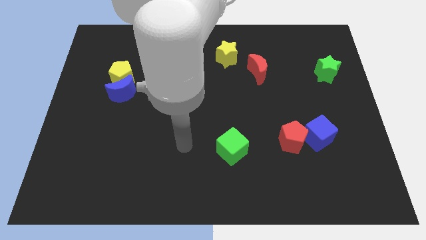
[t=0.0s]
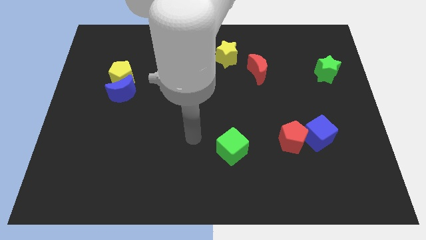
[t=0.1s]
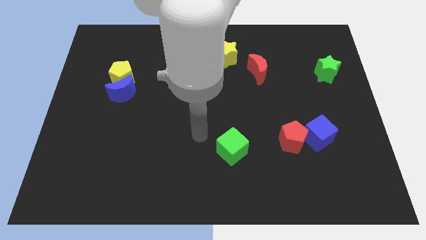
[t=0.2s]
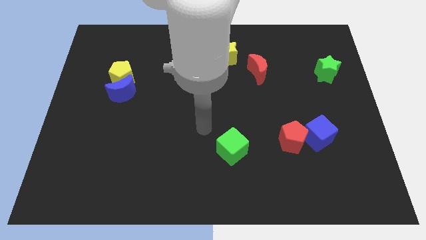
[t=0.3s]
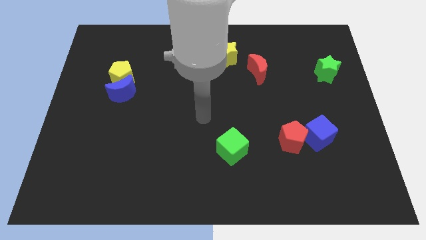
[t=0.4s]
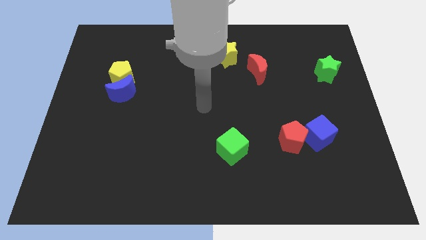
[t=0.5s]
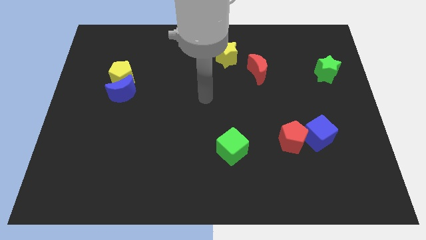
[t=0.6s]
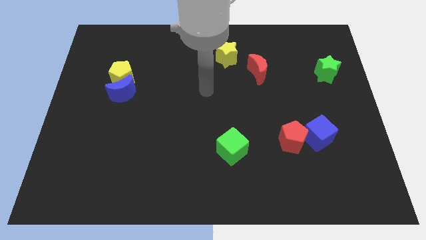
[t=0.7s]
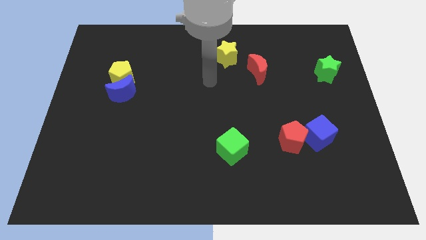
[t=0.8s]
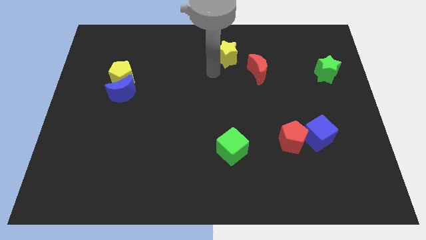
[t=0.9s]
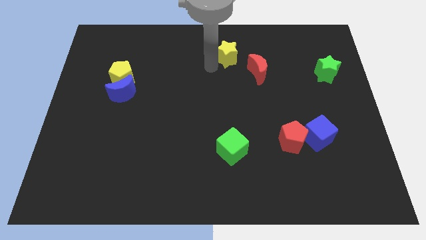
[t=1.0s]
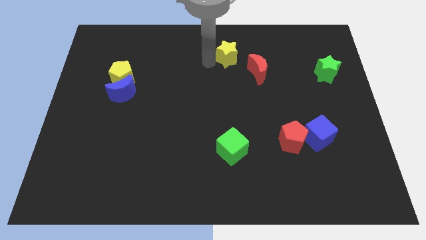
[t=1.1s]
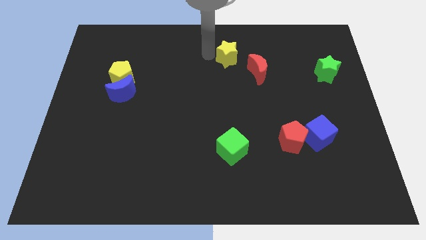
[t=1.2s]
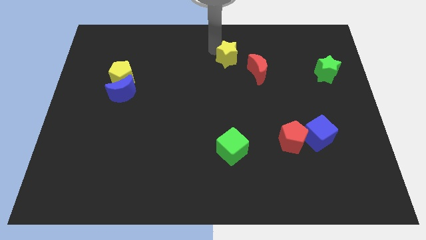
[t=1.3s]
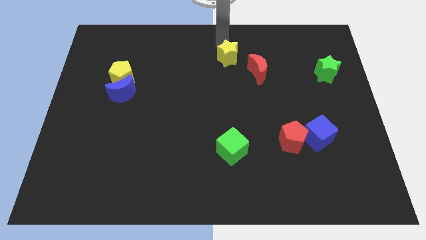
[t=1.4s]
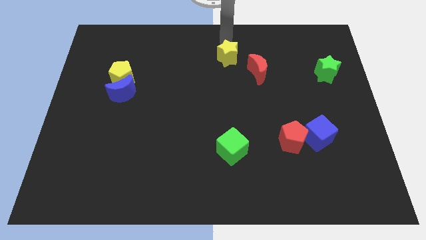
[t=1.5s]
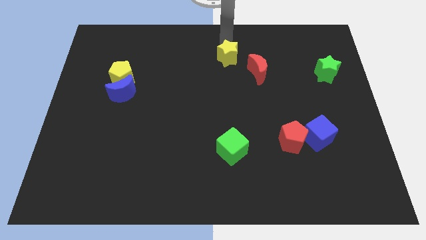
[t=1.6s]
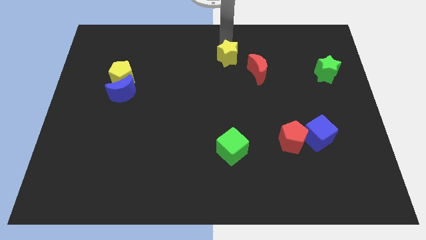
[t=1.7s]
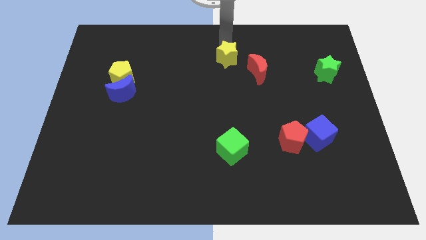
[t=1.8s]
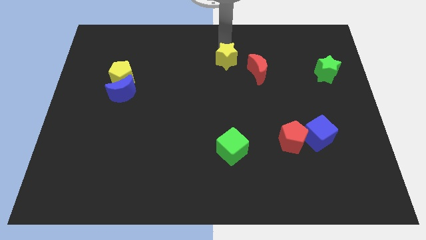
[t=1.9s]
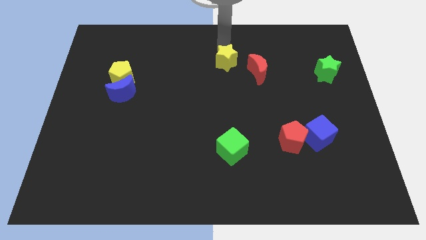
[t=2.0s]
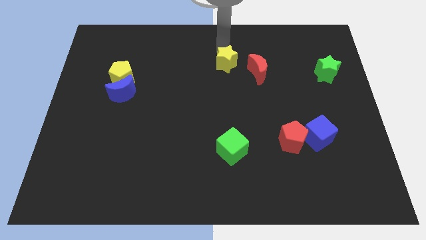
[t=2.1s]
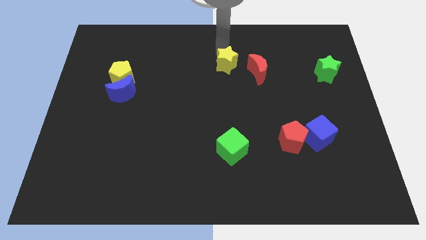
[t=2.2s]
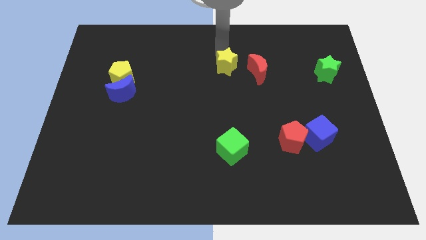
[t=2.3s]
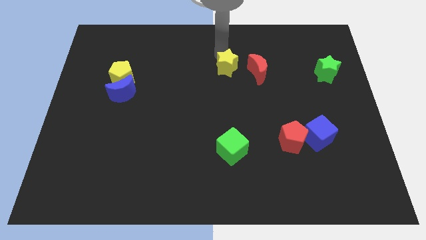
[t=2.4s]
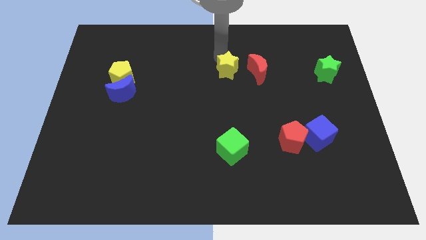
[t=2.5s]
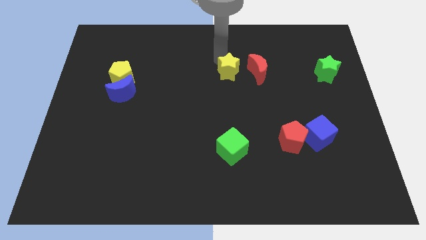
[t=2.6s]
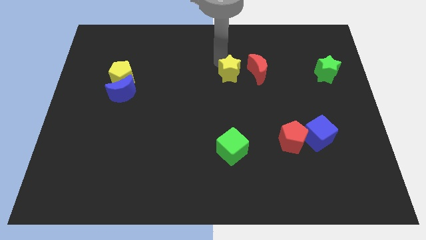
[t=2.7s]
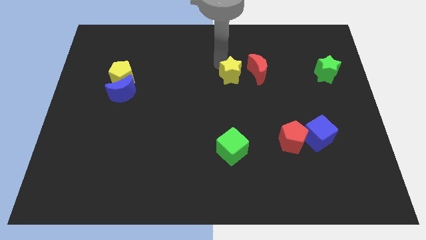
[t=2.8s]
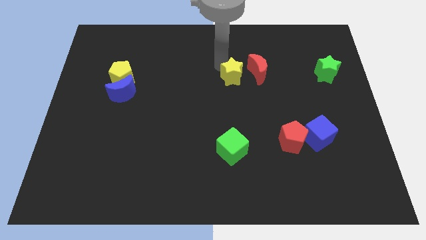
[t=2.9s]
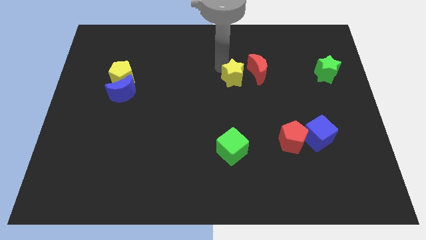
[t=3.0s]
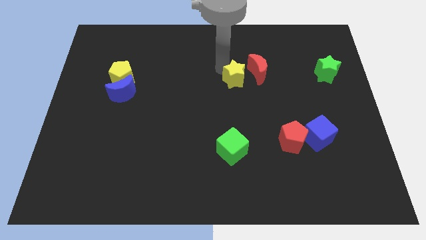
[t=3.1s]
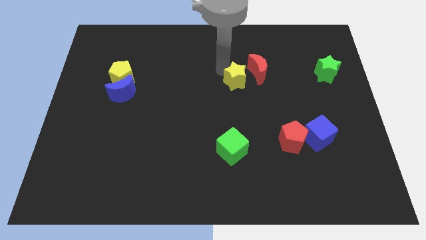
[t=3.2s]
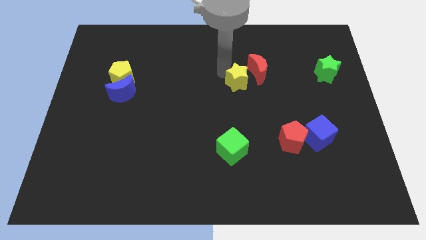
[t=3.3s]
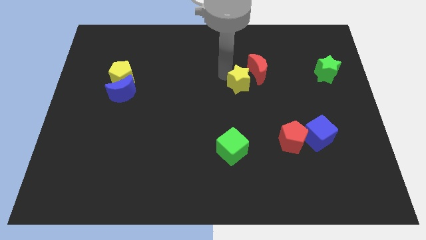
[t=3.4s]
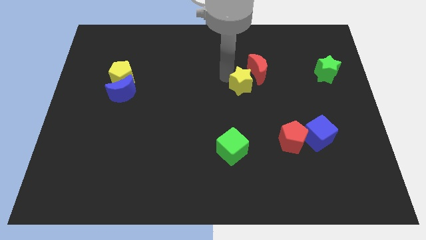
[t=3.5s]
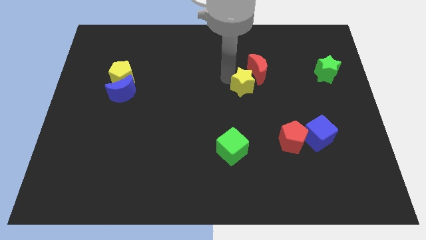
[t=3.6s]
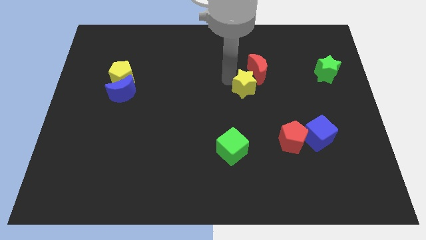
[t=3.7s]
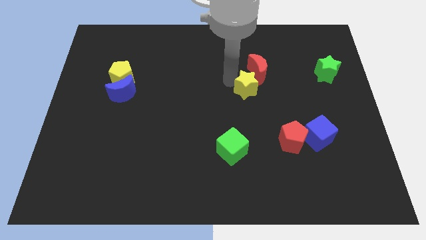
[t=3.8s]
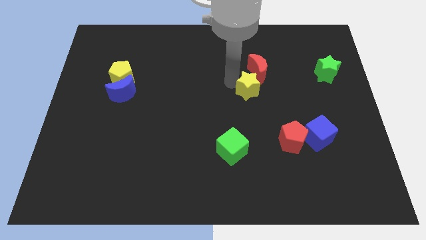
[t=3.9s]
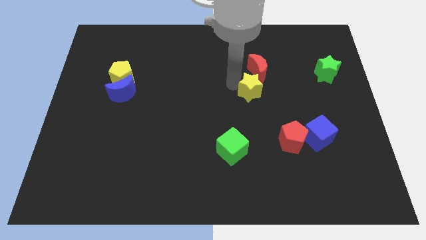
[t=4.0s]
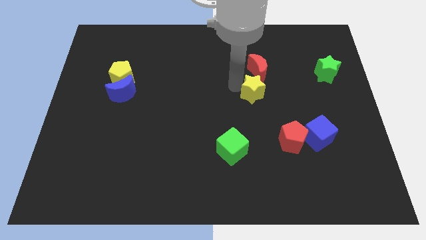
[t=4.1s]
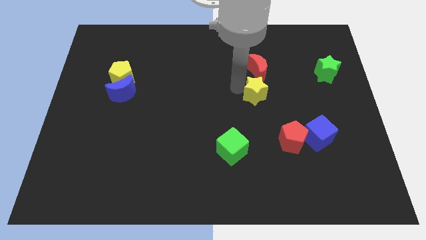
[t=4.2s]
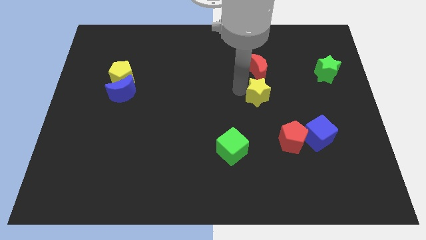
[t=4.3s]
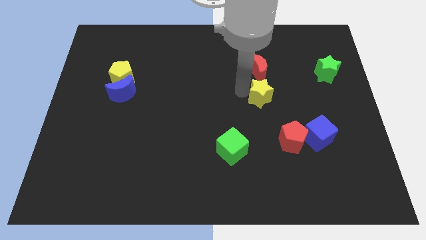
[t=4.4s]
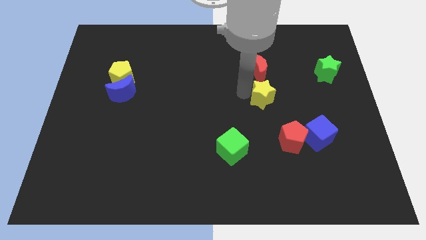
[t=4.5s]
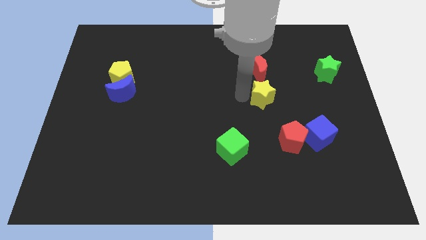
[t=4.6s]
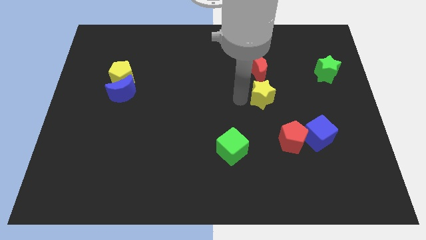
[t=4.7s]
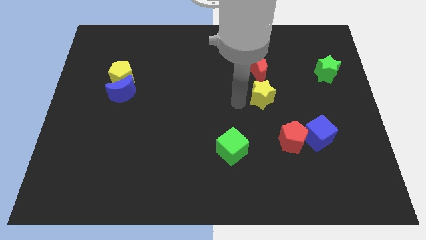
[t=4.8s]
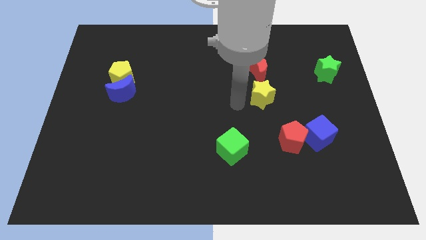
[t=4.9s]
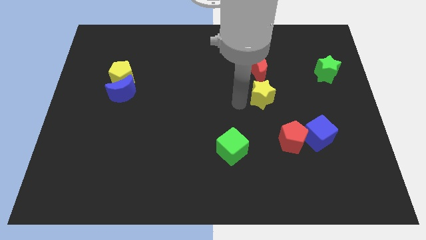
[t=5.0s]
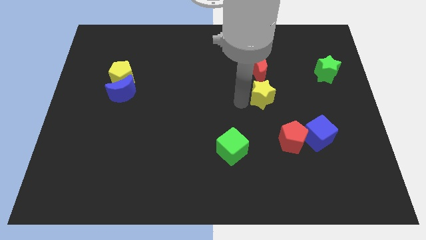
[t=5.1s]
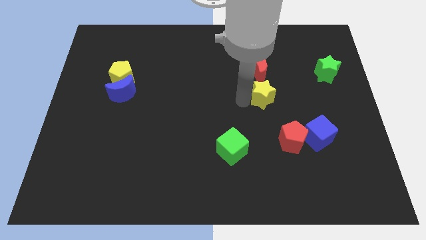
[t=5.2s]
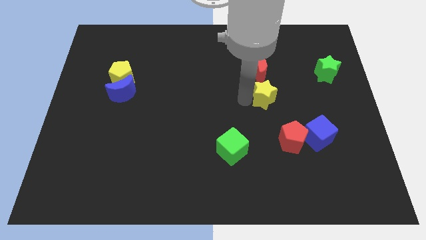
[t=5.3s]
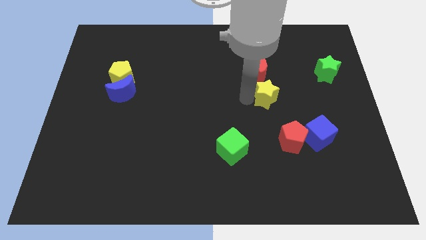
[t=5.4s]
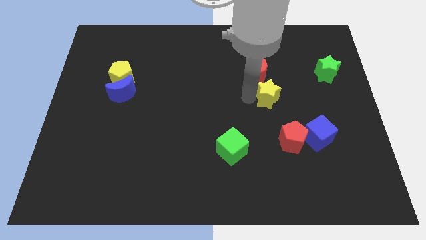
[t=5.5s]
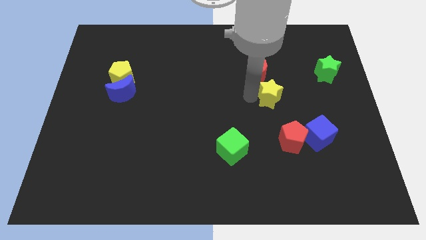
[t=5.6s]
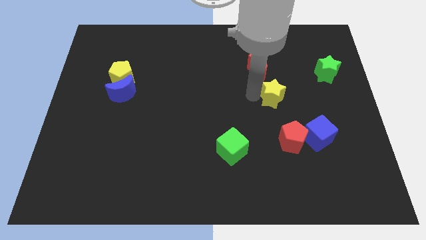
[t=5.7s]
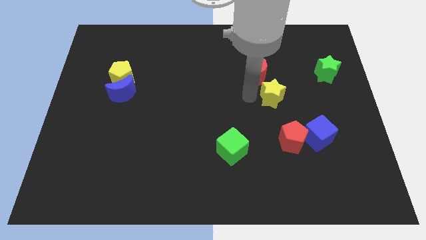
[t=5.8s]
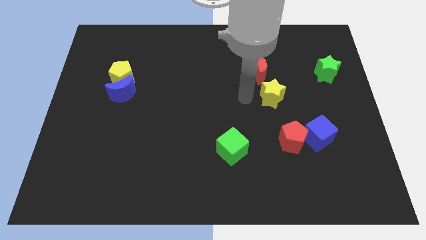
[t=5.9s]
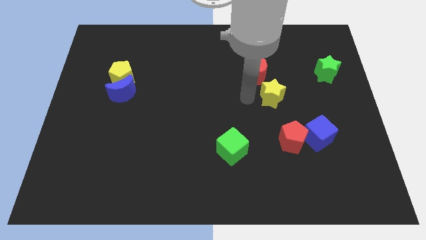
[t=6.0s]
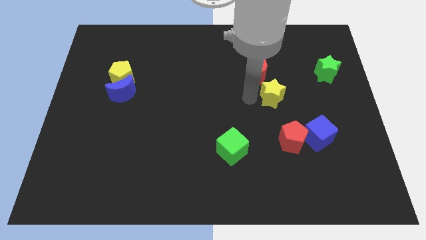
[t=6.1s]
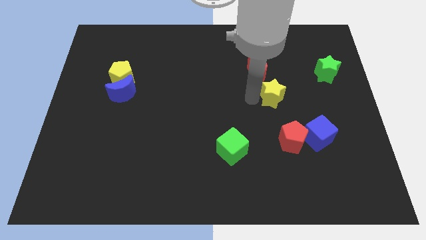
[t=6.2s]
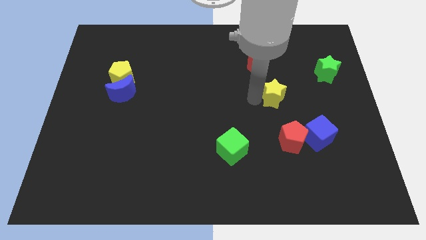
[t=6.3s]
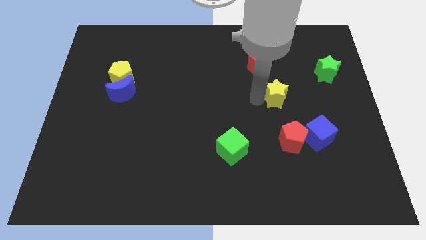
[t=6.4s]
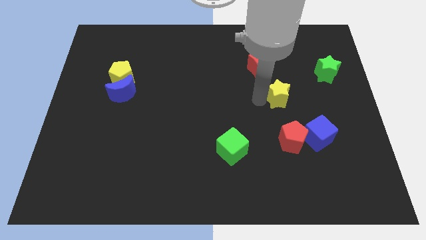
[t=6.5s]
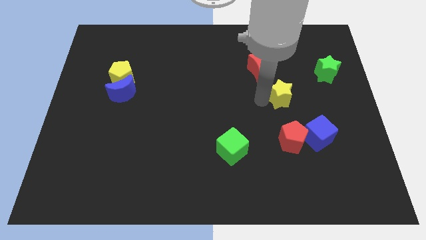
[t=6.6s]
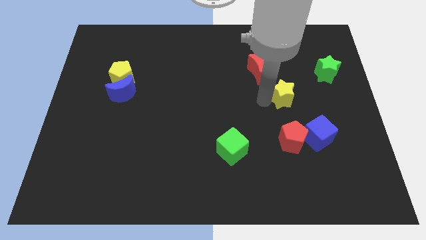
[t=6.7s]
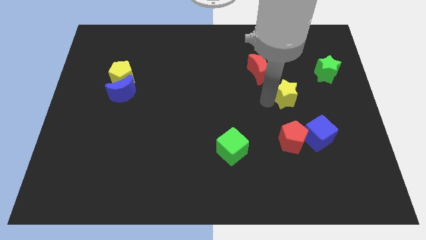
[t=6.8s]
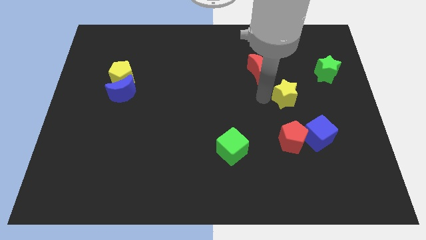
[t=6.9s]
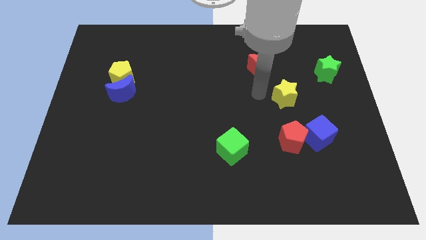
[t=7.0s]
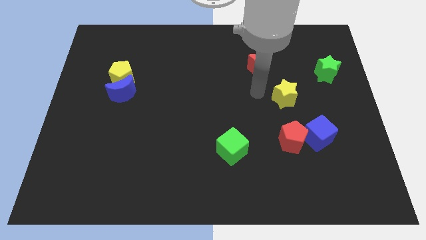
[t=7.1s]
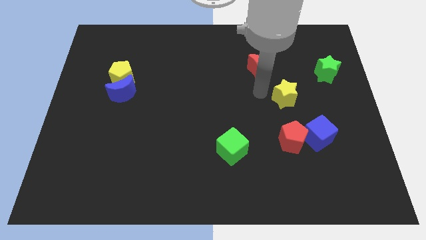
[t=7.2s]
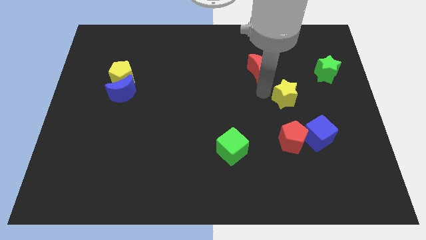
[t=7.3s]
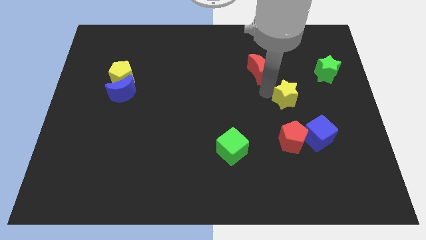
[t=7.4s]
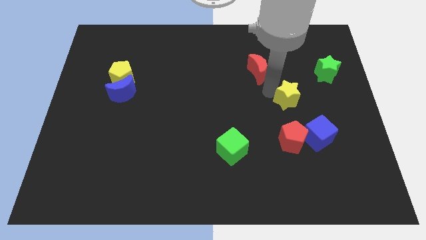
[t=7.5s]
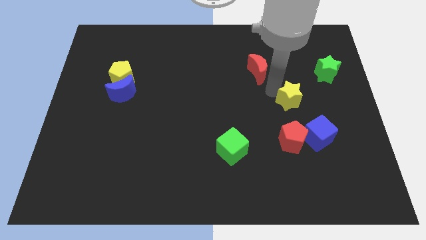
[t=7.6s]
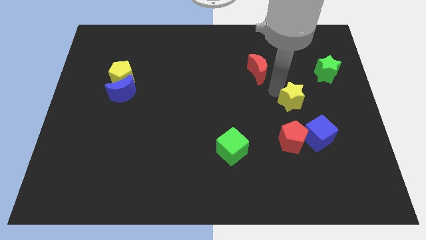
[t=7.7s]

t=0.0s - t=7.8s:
push the yellow star above the blue cube
